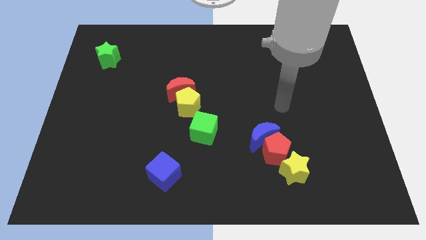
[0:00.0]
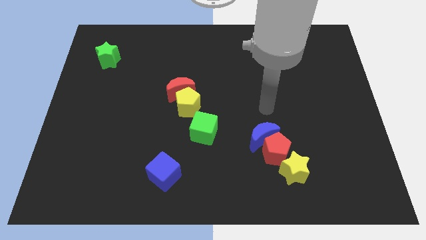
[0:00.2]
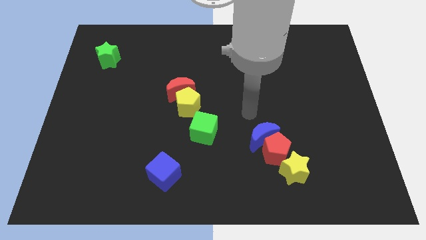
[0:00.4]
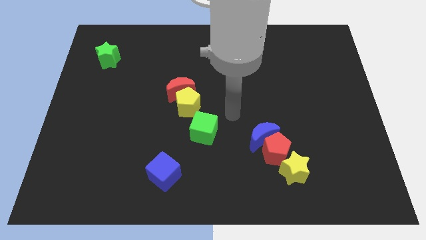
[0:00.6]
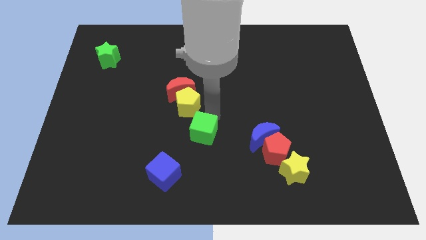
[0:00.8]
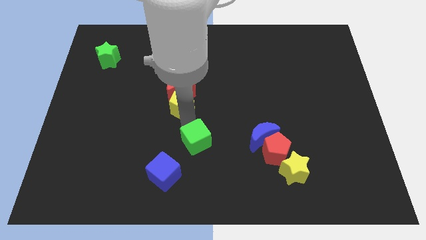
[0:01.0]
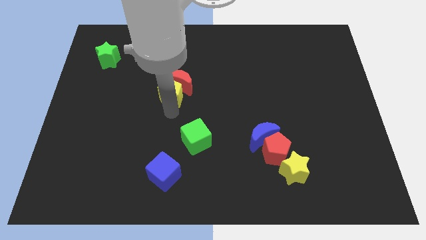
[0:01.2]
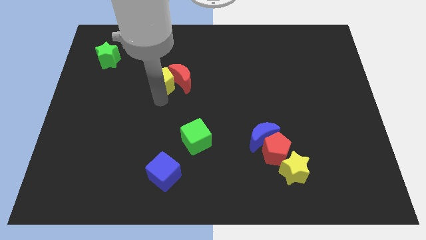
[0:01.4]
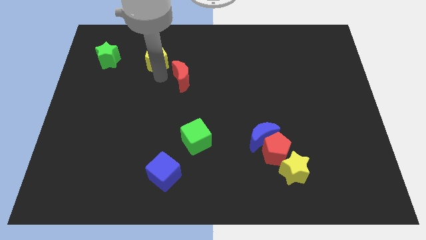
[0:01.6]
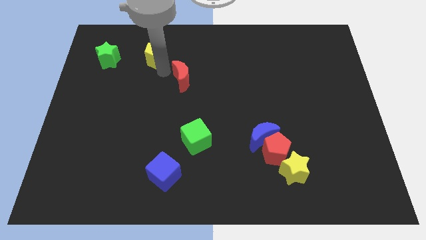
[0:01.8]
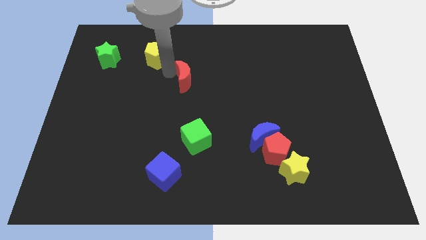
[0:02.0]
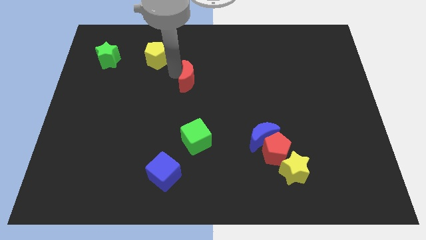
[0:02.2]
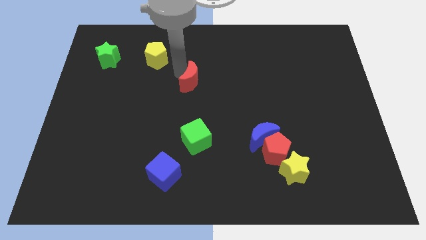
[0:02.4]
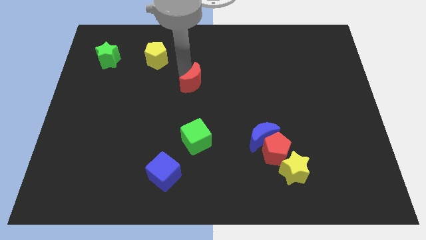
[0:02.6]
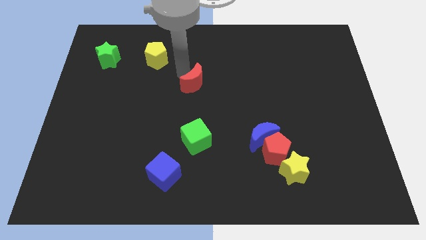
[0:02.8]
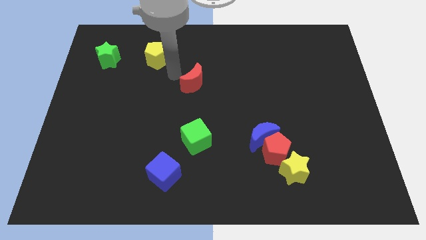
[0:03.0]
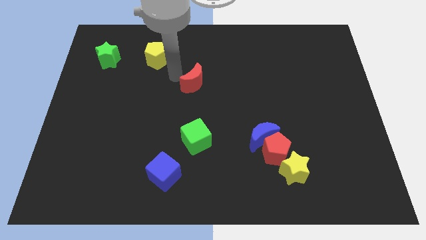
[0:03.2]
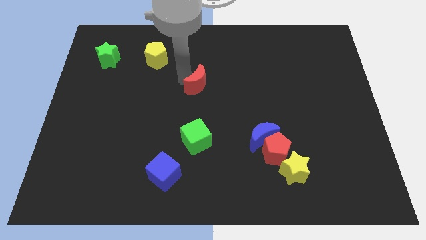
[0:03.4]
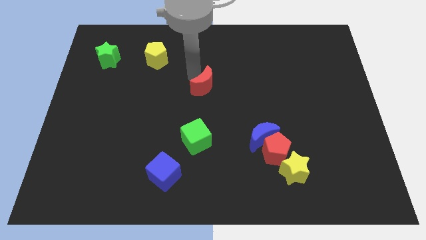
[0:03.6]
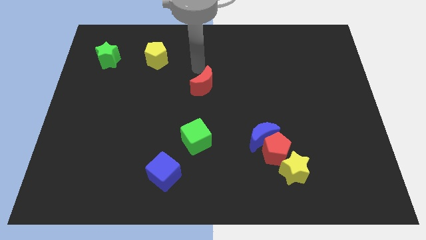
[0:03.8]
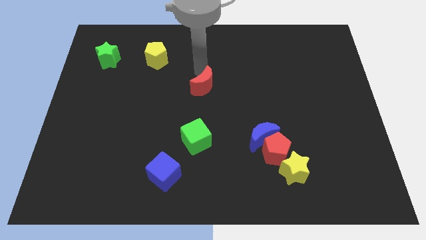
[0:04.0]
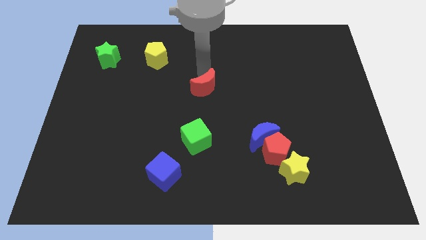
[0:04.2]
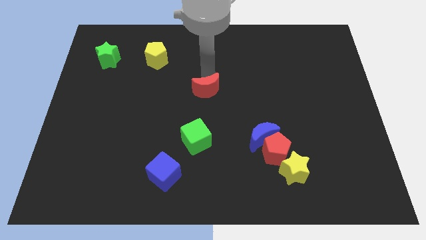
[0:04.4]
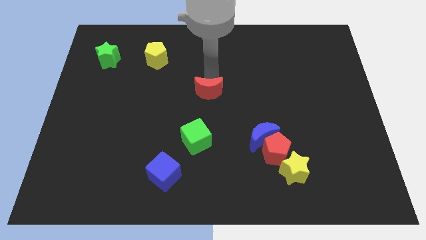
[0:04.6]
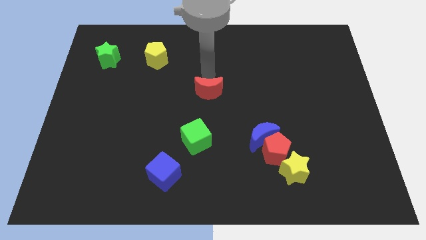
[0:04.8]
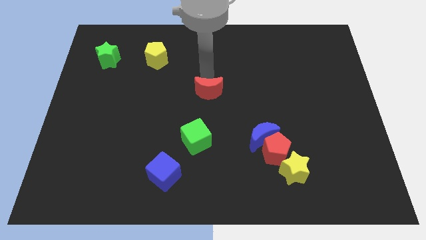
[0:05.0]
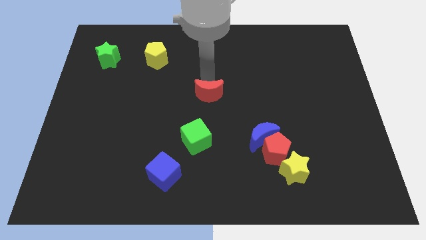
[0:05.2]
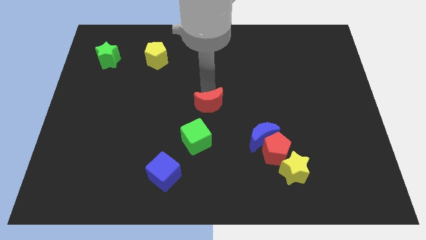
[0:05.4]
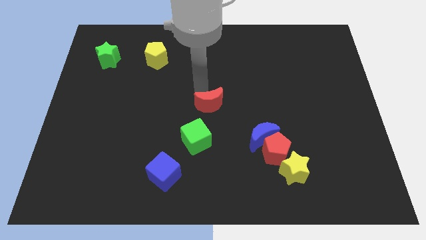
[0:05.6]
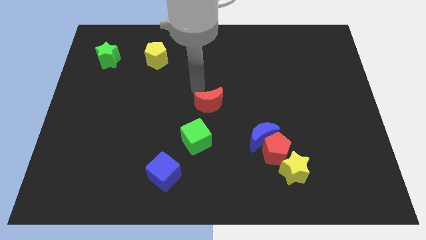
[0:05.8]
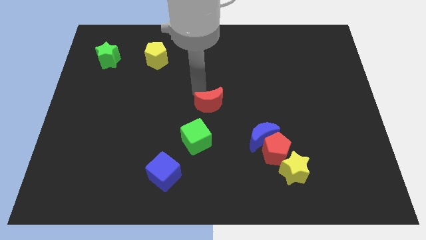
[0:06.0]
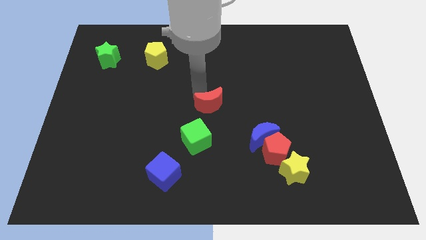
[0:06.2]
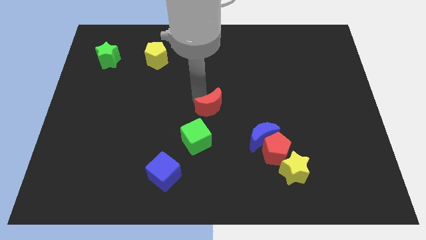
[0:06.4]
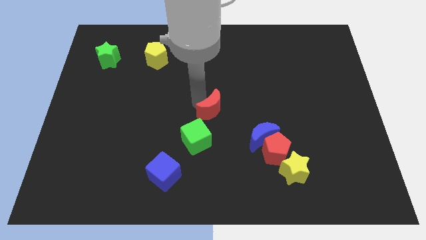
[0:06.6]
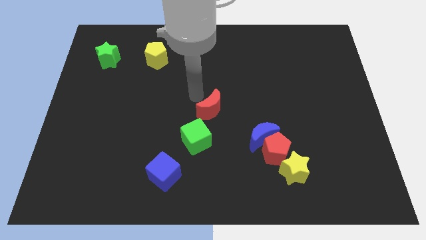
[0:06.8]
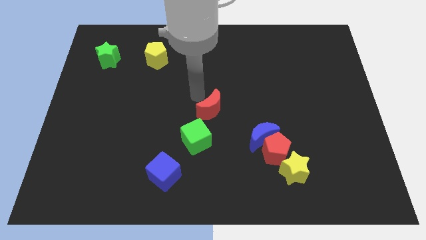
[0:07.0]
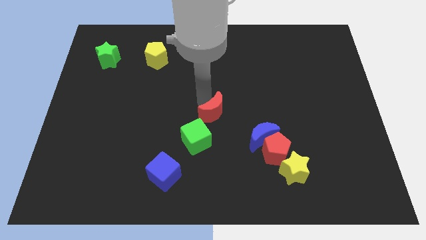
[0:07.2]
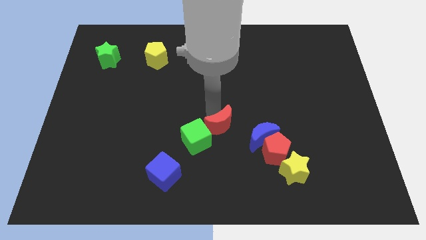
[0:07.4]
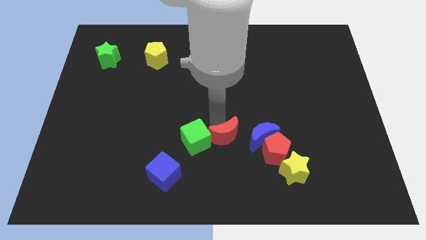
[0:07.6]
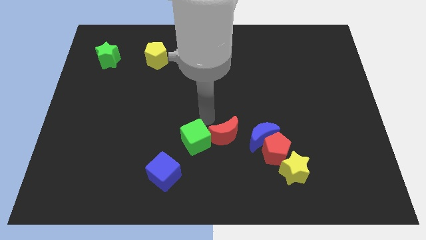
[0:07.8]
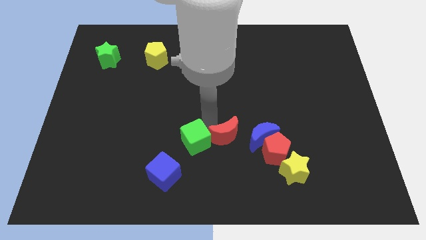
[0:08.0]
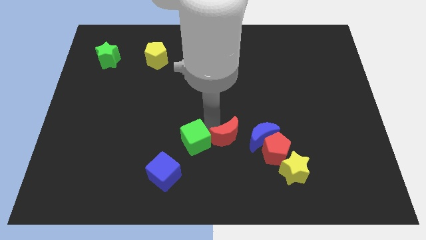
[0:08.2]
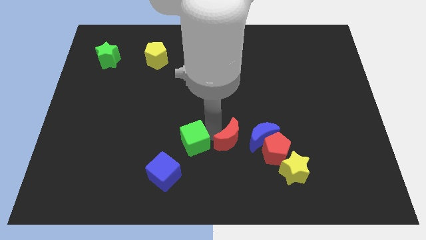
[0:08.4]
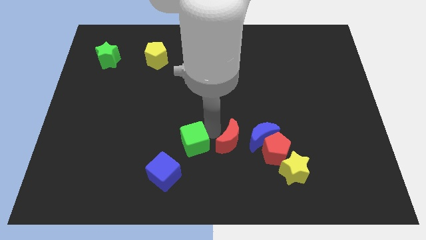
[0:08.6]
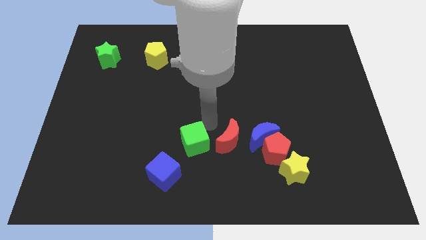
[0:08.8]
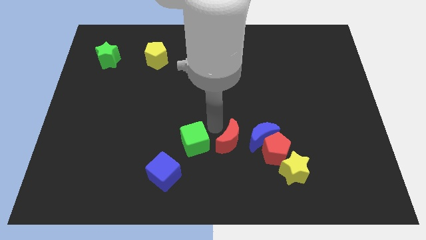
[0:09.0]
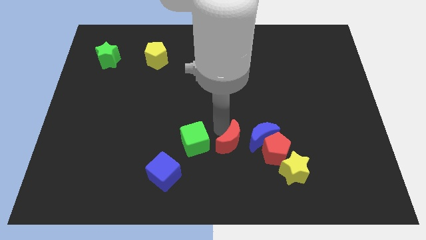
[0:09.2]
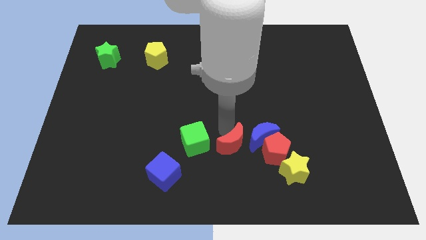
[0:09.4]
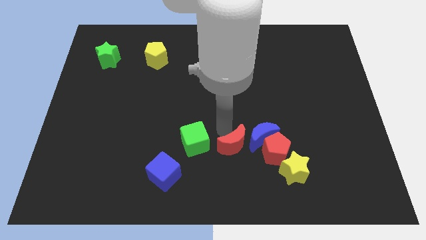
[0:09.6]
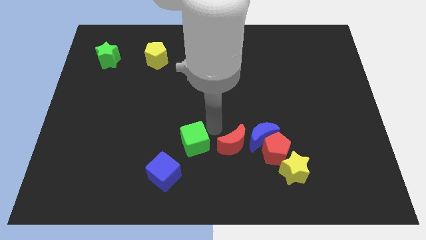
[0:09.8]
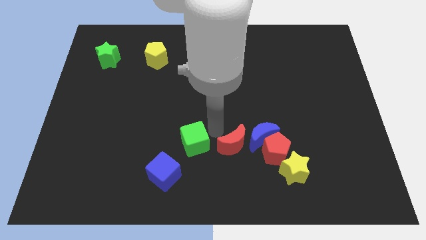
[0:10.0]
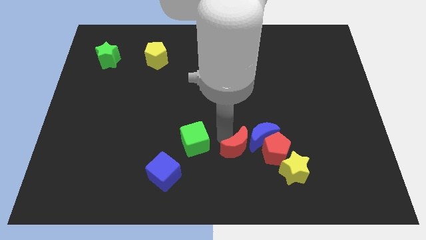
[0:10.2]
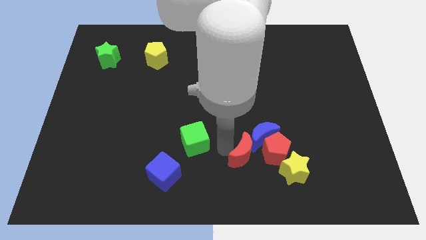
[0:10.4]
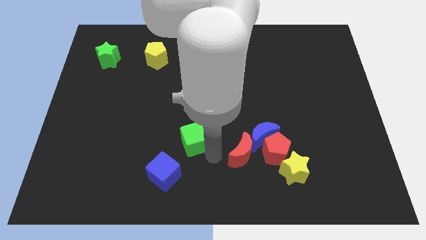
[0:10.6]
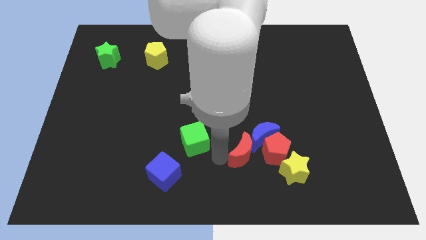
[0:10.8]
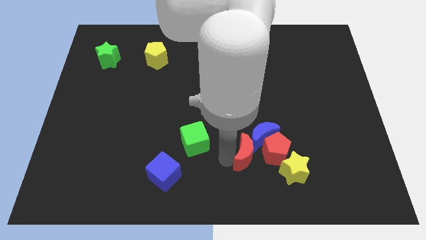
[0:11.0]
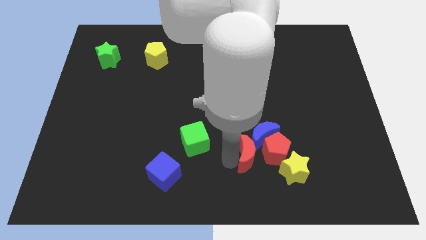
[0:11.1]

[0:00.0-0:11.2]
put the red moon close to the red pentagon

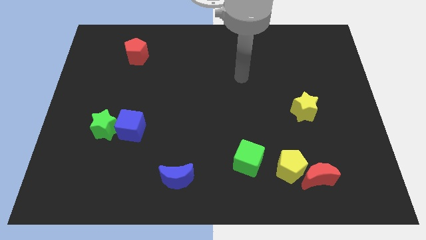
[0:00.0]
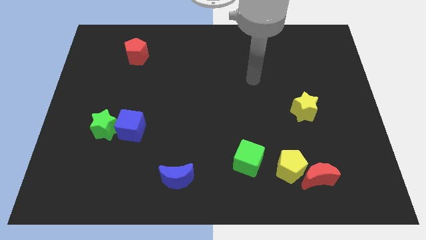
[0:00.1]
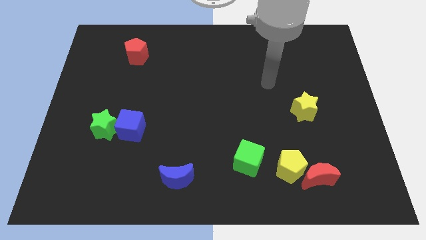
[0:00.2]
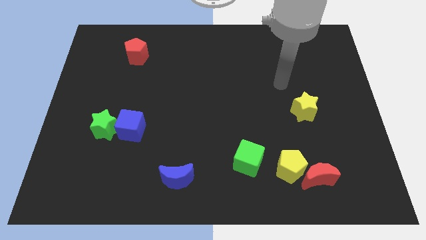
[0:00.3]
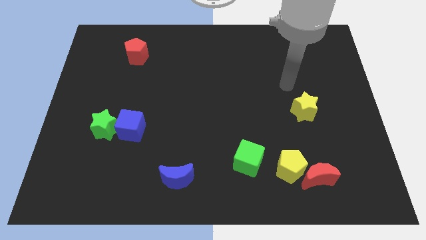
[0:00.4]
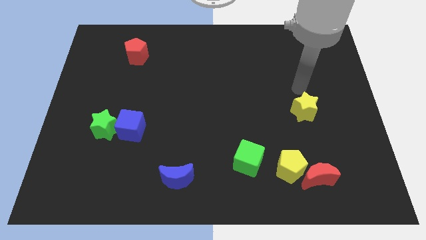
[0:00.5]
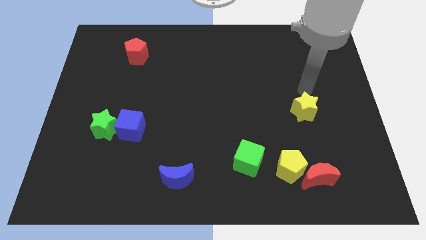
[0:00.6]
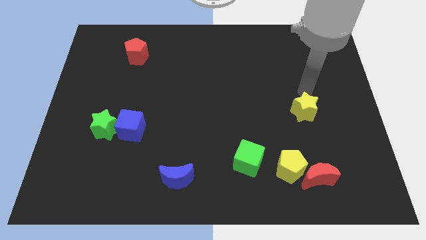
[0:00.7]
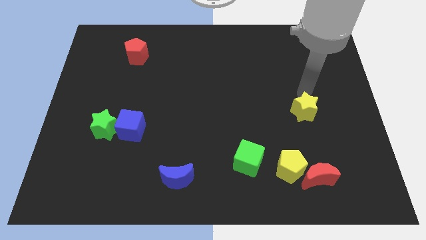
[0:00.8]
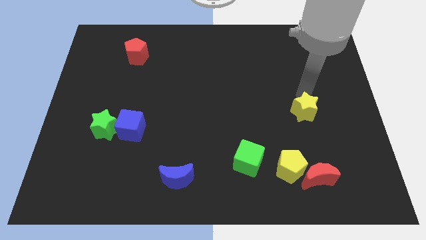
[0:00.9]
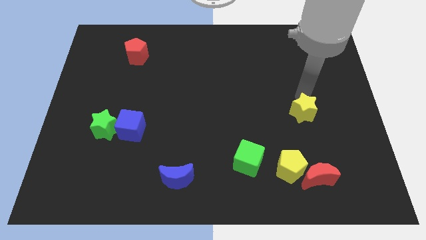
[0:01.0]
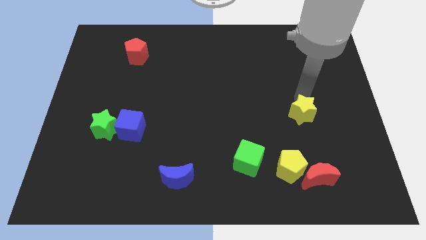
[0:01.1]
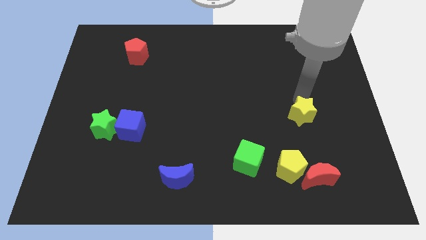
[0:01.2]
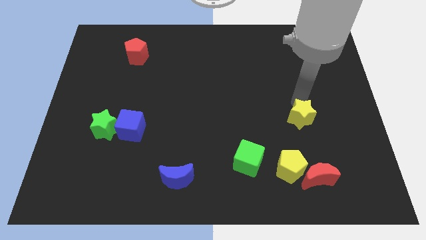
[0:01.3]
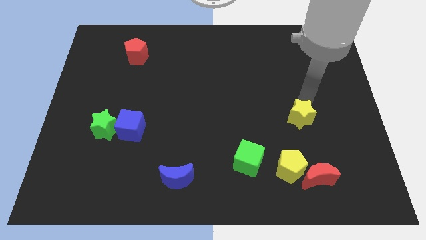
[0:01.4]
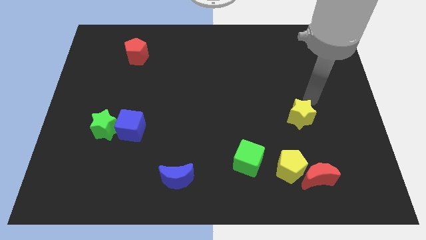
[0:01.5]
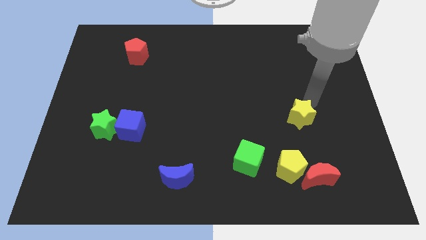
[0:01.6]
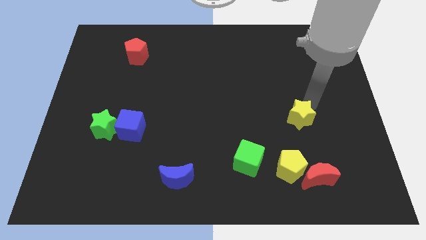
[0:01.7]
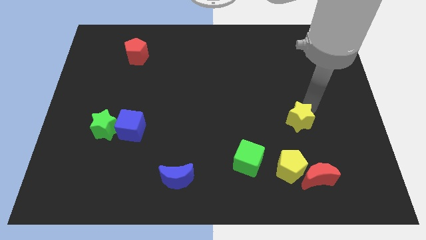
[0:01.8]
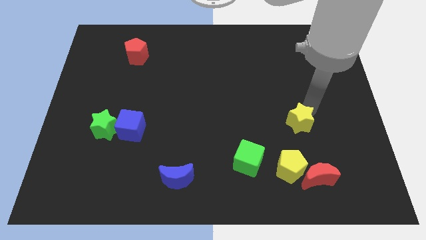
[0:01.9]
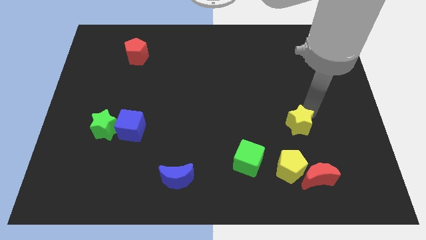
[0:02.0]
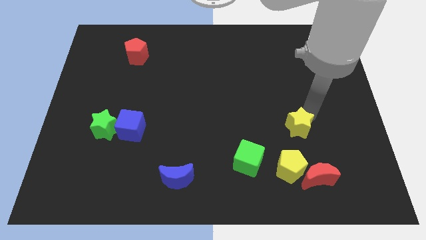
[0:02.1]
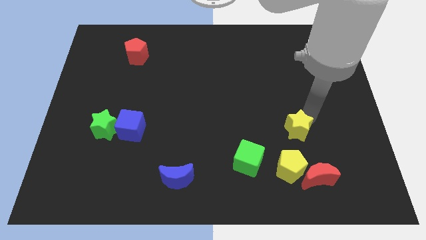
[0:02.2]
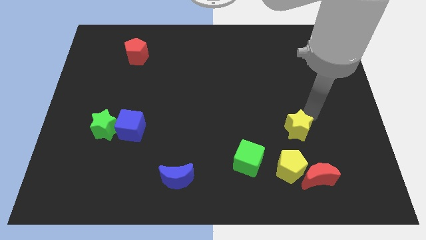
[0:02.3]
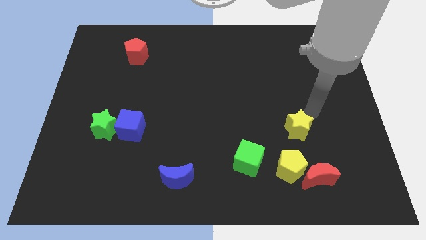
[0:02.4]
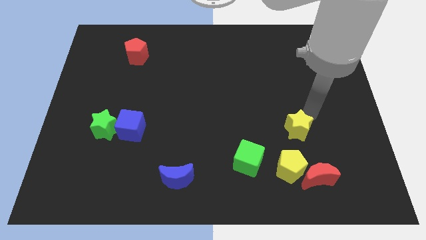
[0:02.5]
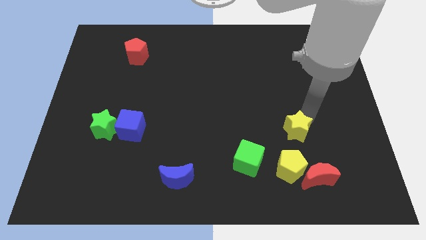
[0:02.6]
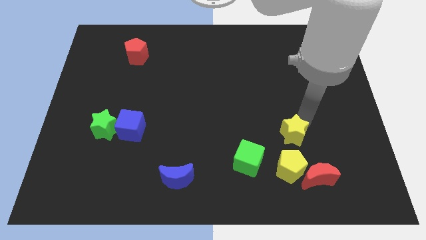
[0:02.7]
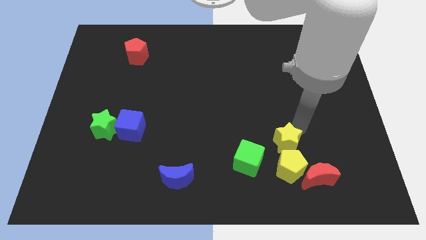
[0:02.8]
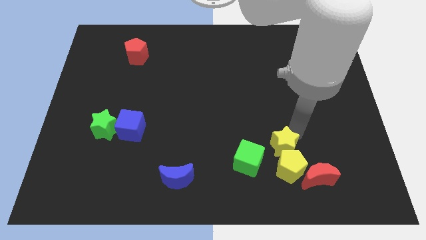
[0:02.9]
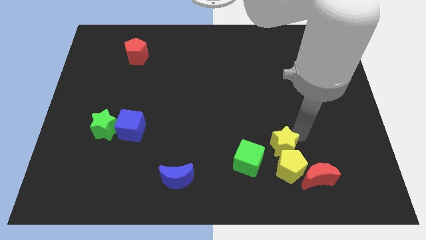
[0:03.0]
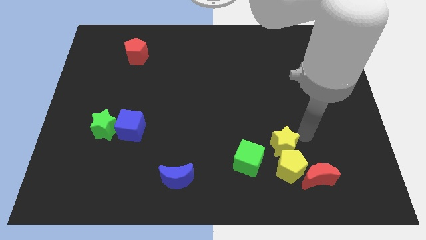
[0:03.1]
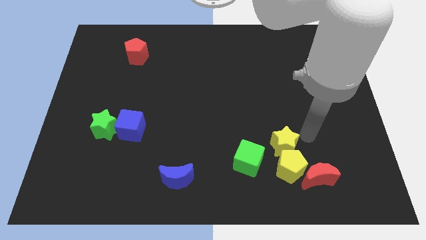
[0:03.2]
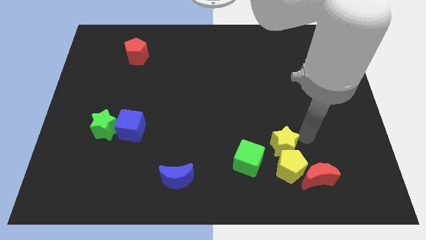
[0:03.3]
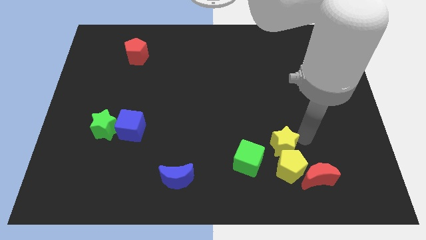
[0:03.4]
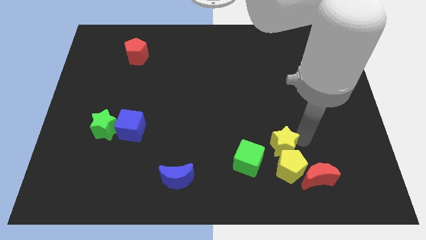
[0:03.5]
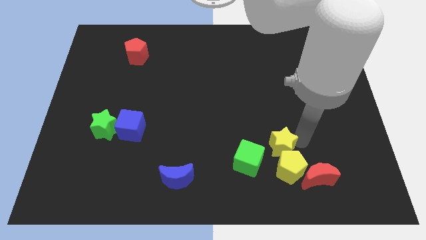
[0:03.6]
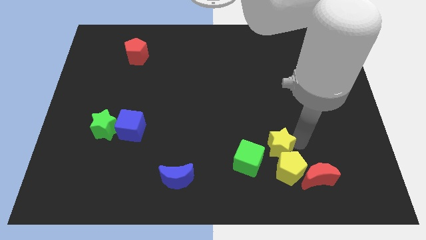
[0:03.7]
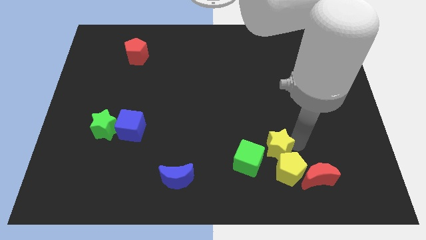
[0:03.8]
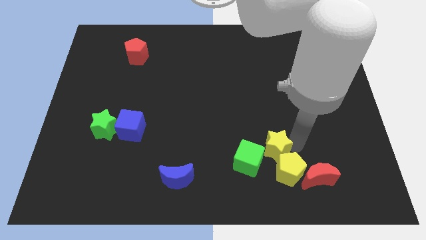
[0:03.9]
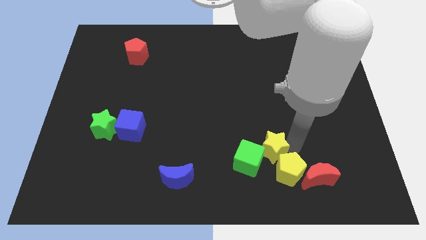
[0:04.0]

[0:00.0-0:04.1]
slide the yellow star towards the green cube
